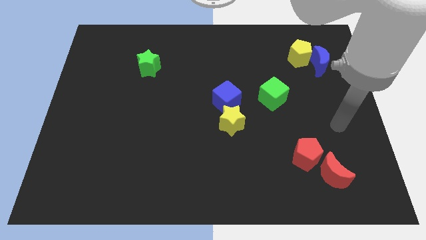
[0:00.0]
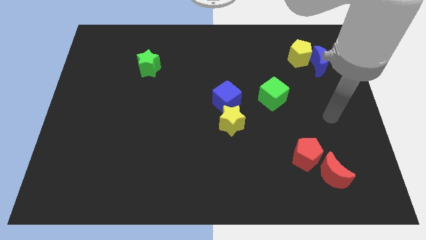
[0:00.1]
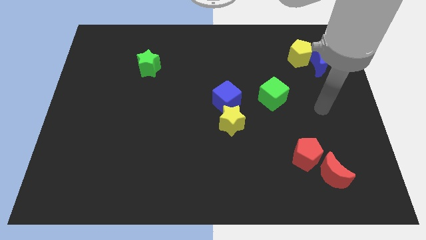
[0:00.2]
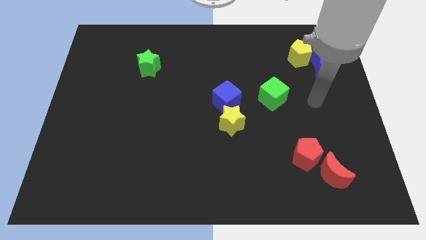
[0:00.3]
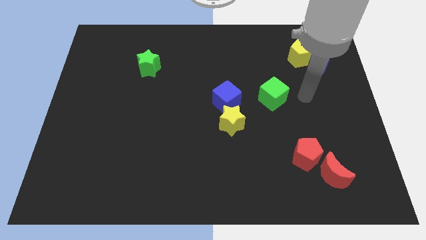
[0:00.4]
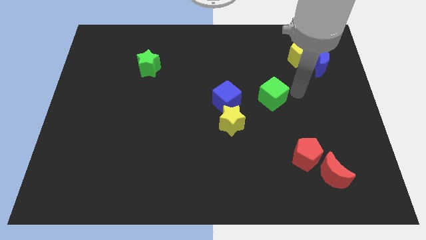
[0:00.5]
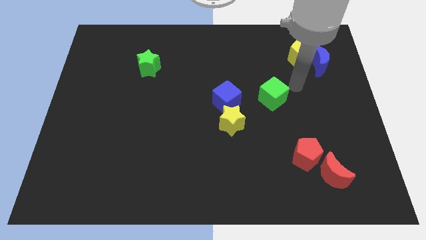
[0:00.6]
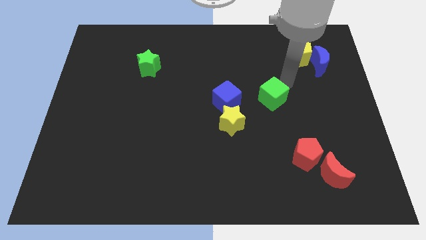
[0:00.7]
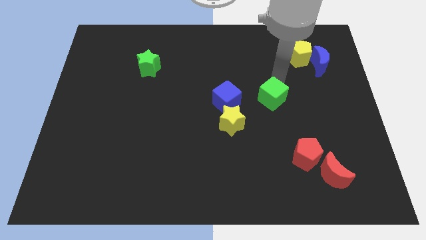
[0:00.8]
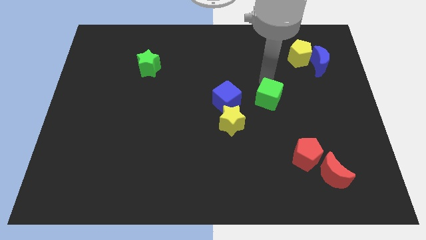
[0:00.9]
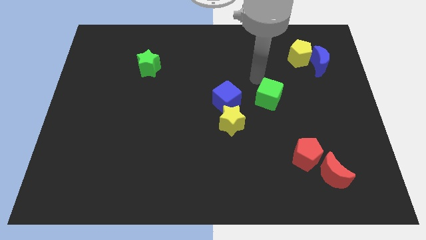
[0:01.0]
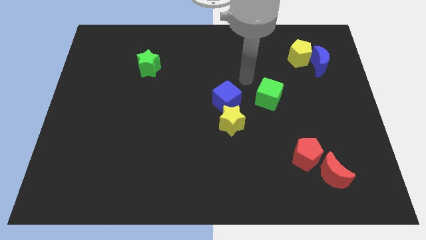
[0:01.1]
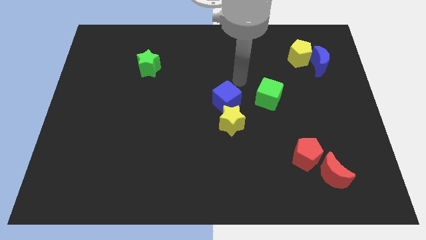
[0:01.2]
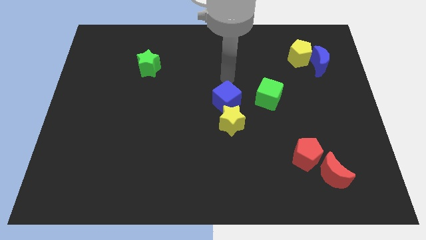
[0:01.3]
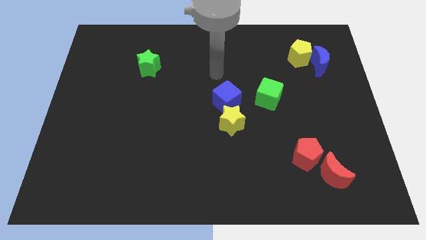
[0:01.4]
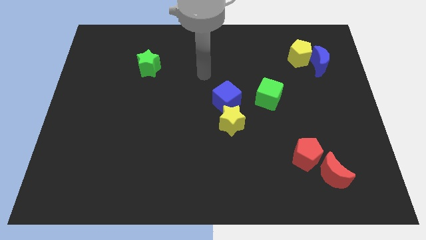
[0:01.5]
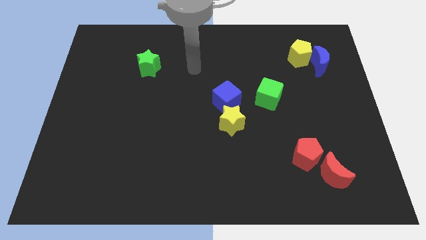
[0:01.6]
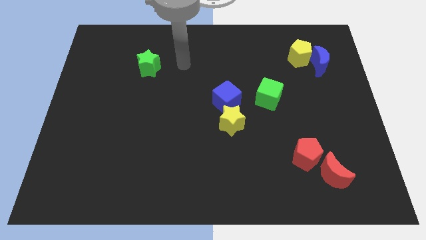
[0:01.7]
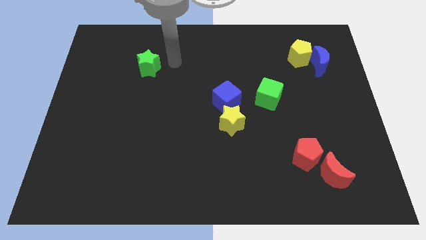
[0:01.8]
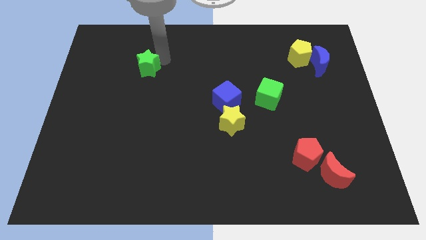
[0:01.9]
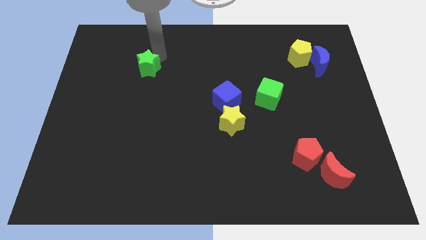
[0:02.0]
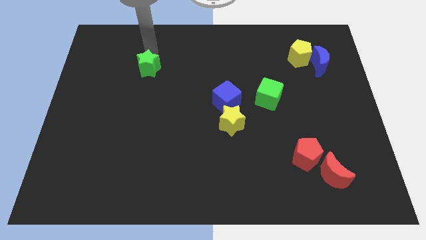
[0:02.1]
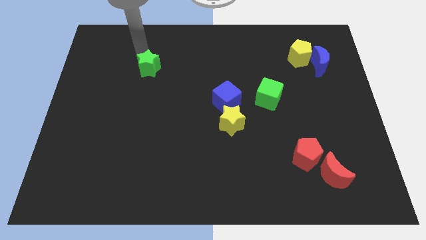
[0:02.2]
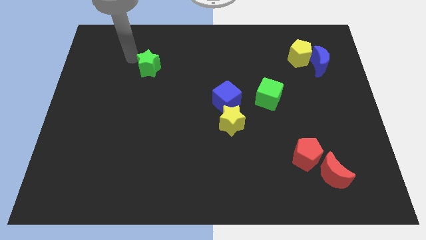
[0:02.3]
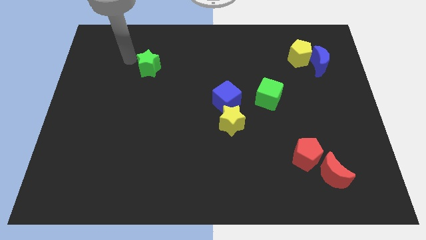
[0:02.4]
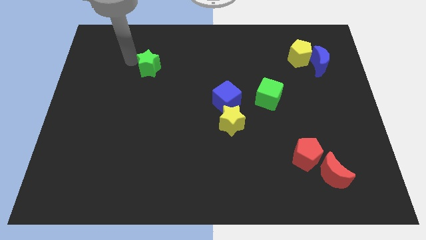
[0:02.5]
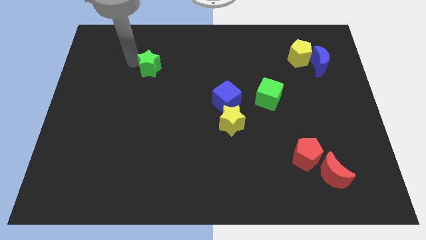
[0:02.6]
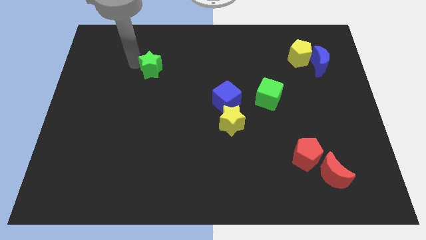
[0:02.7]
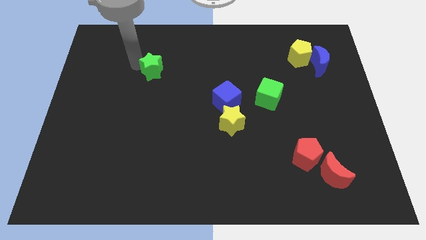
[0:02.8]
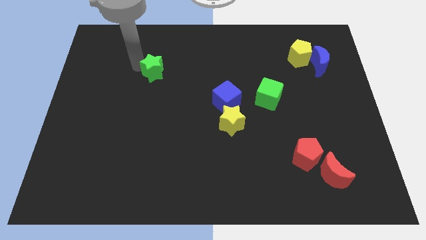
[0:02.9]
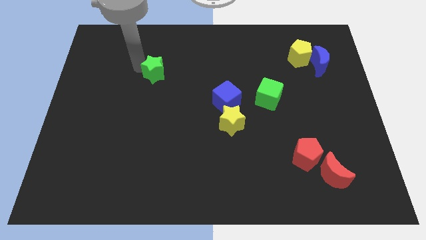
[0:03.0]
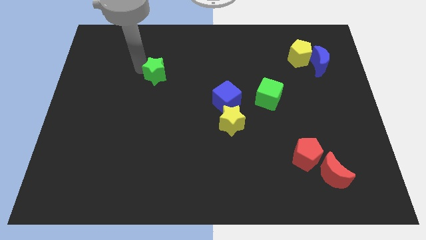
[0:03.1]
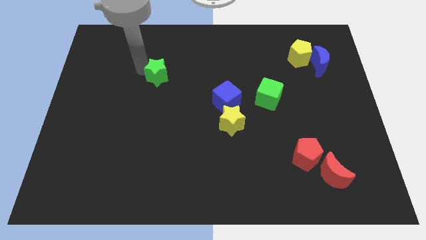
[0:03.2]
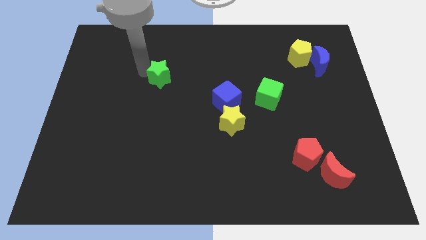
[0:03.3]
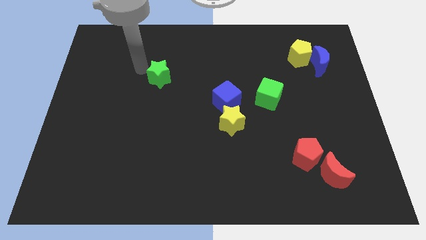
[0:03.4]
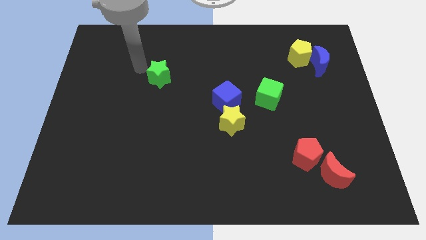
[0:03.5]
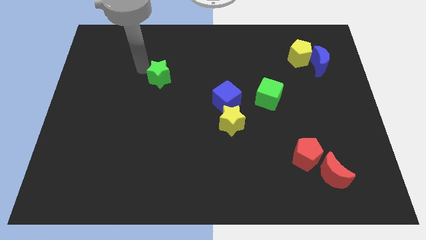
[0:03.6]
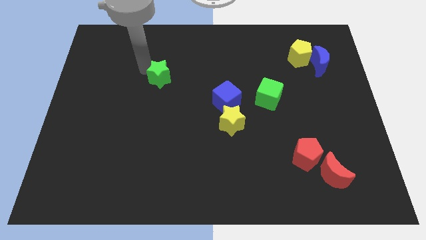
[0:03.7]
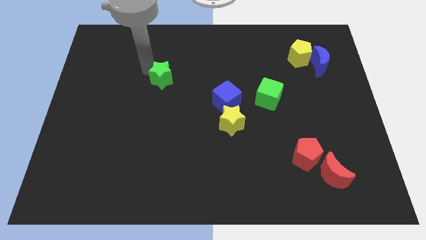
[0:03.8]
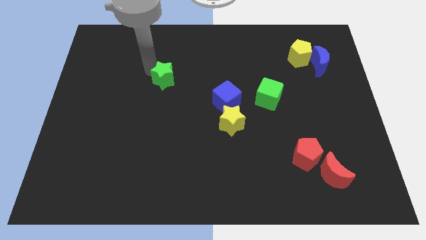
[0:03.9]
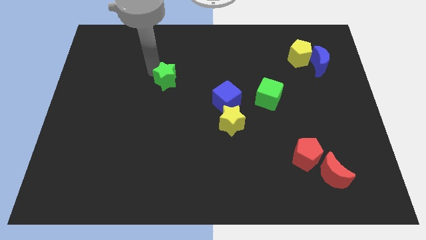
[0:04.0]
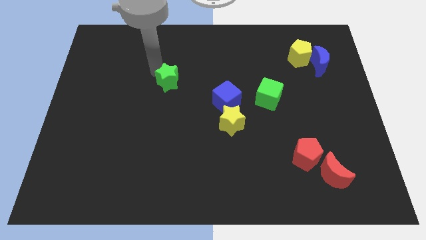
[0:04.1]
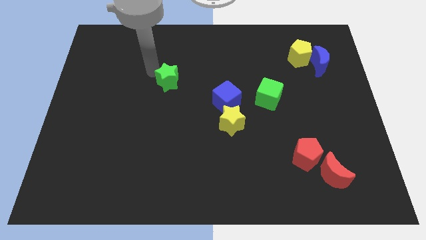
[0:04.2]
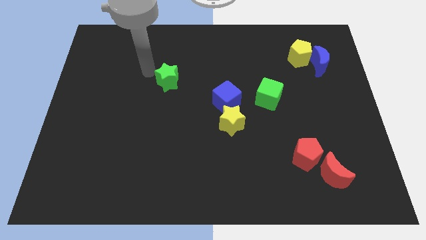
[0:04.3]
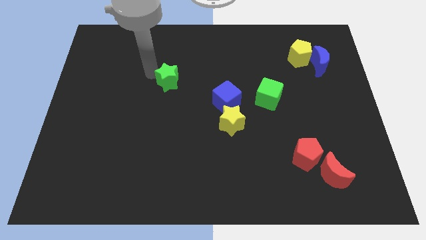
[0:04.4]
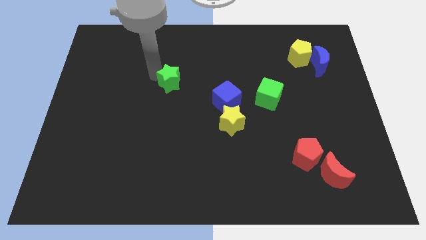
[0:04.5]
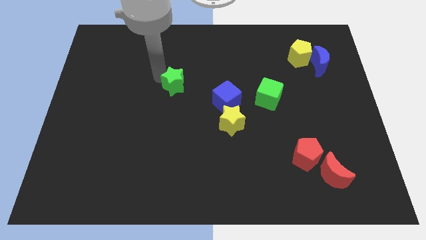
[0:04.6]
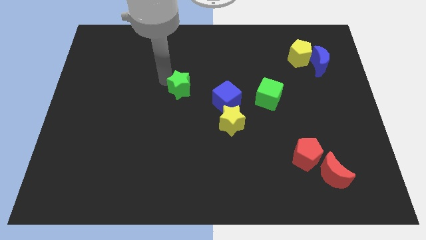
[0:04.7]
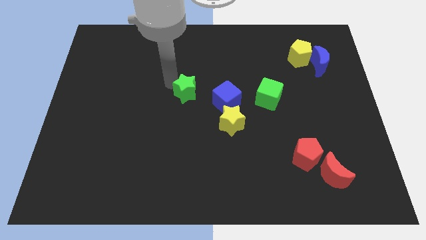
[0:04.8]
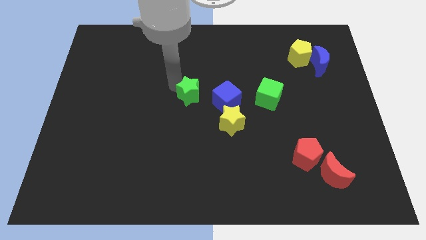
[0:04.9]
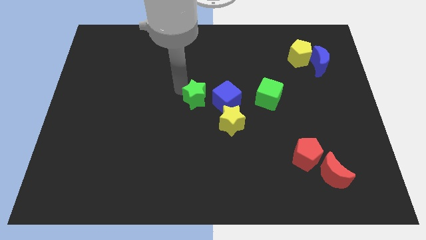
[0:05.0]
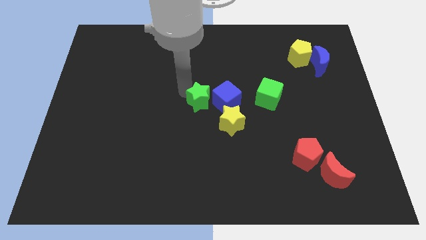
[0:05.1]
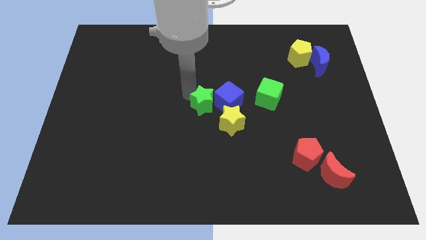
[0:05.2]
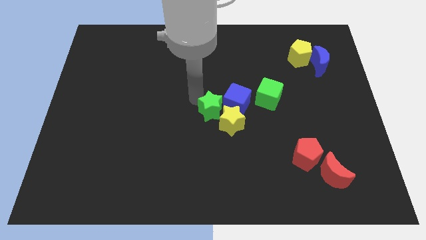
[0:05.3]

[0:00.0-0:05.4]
slide the green star to the yellow star
